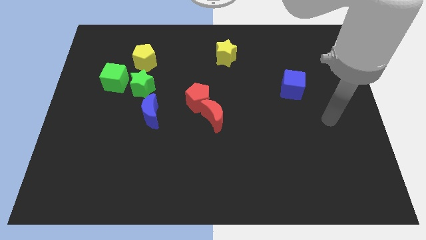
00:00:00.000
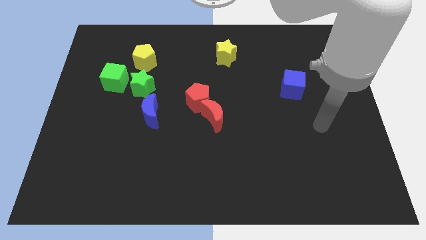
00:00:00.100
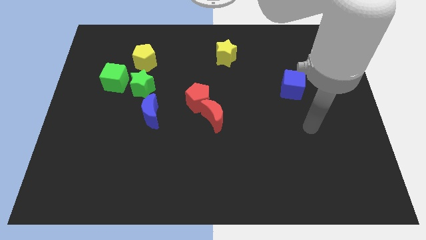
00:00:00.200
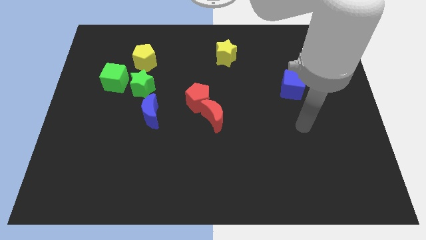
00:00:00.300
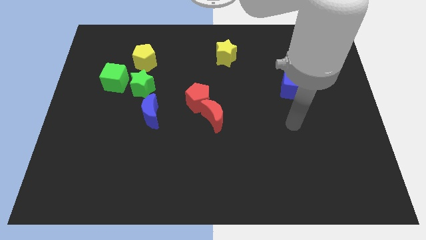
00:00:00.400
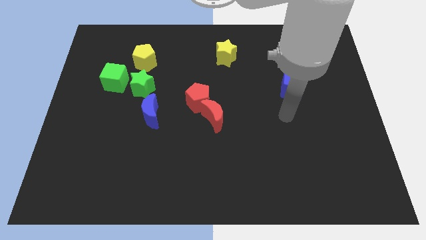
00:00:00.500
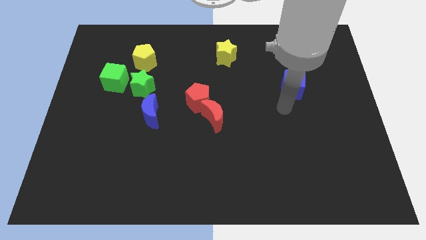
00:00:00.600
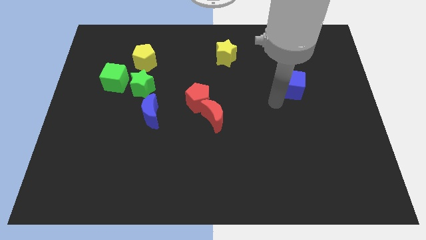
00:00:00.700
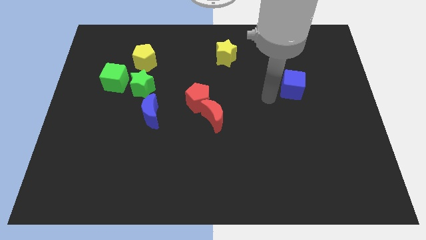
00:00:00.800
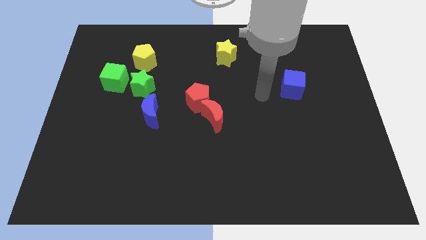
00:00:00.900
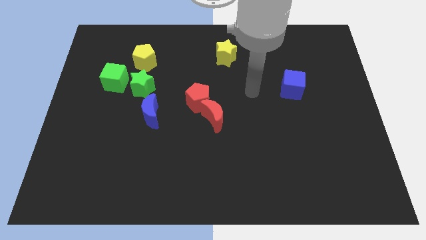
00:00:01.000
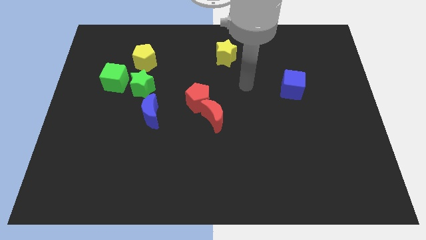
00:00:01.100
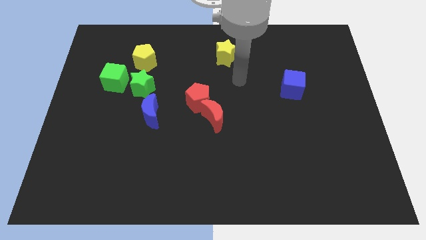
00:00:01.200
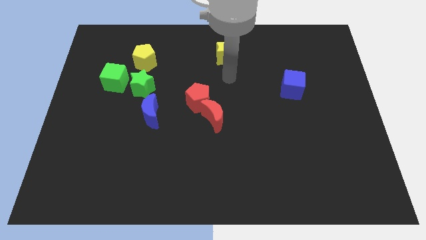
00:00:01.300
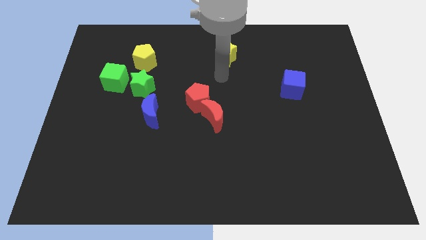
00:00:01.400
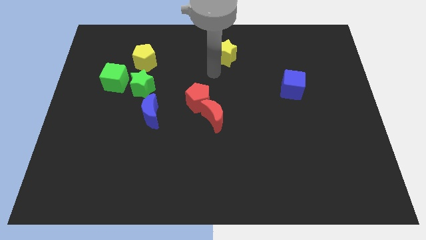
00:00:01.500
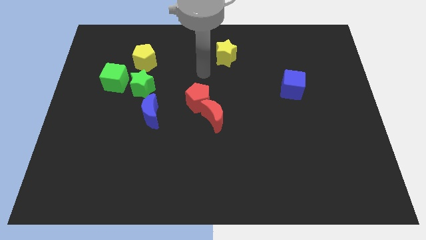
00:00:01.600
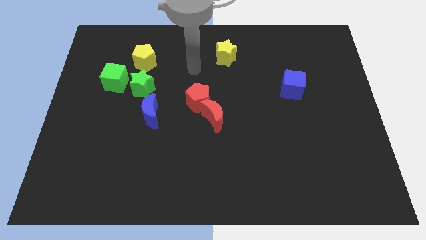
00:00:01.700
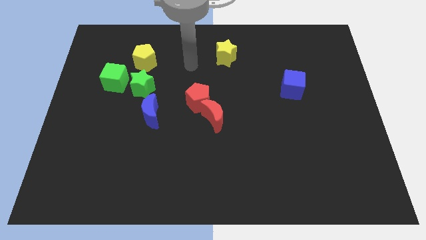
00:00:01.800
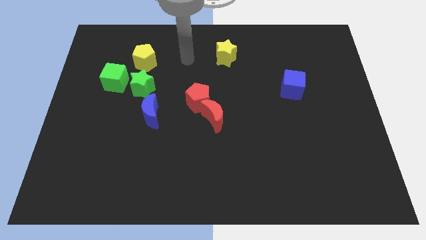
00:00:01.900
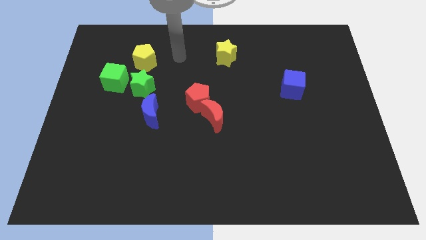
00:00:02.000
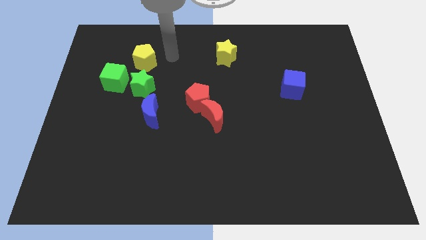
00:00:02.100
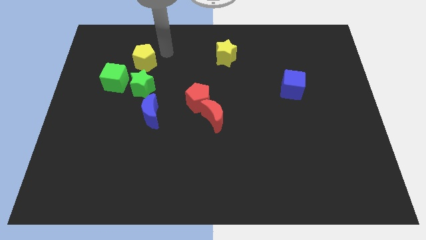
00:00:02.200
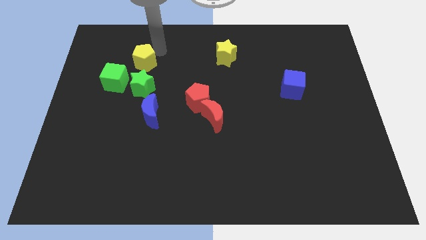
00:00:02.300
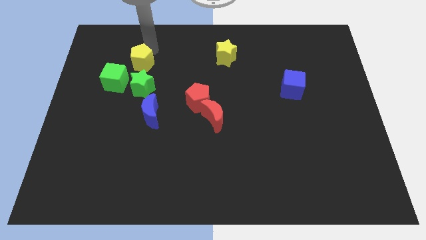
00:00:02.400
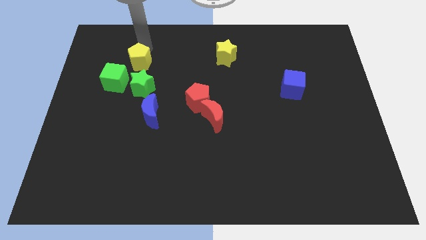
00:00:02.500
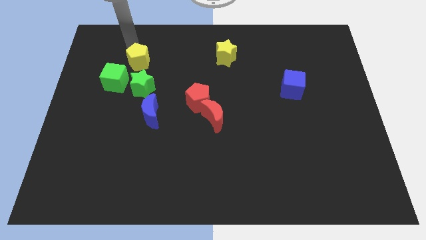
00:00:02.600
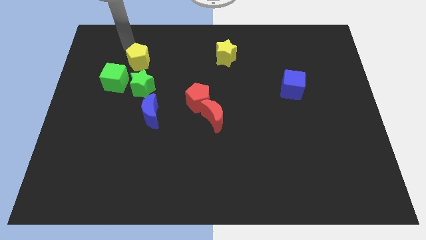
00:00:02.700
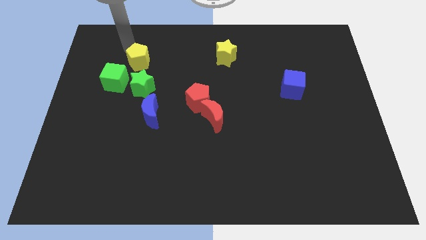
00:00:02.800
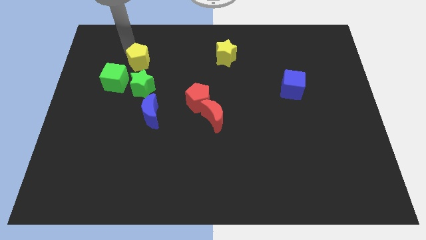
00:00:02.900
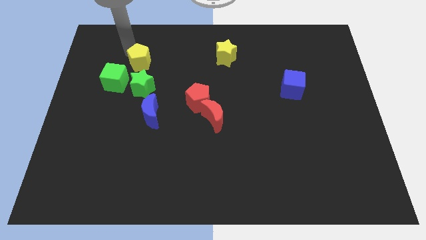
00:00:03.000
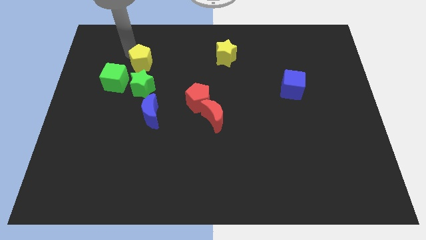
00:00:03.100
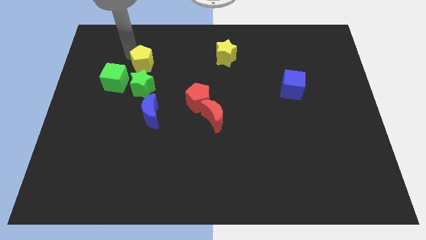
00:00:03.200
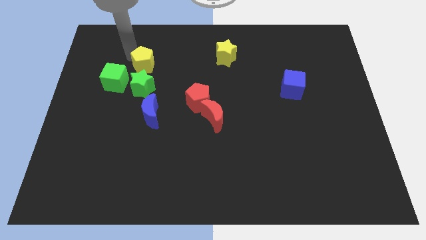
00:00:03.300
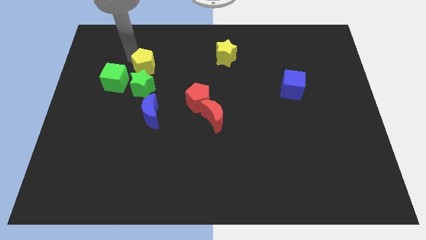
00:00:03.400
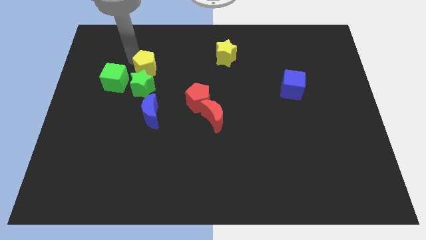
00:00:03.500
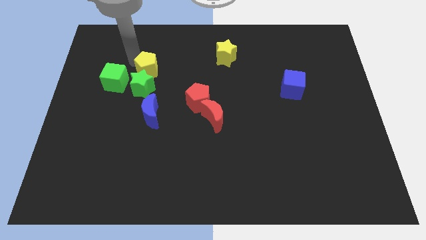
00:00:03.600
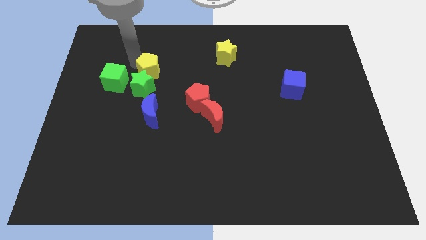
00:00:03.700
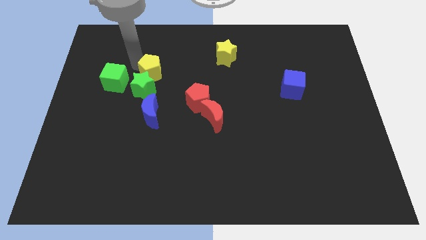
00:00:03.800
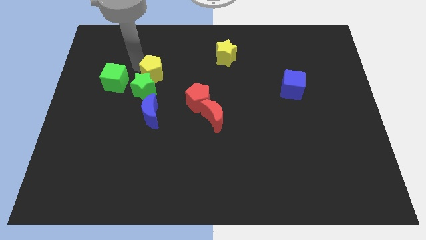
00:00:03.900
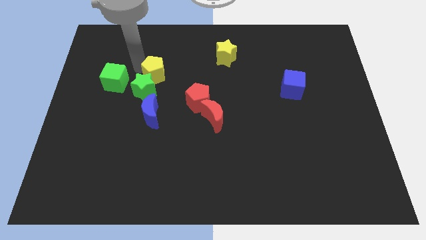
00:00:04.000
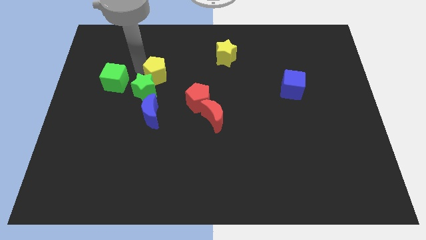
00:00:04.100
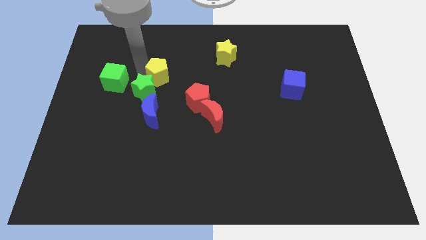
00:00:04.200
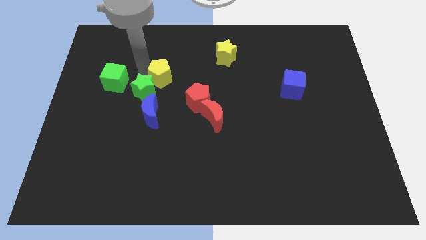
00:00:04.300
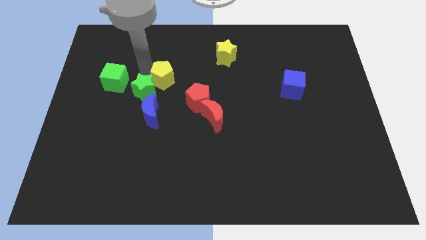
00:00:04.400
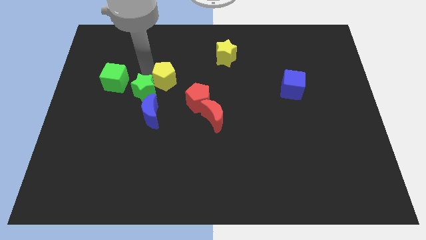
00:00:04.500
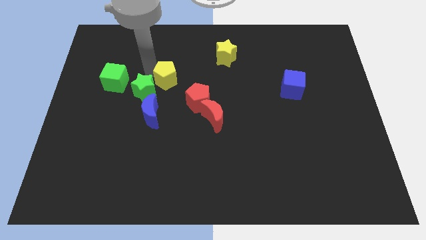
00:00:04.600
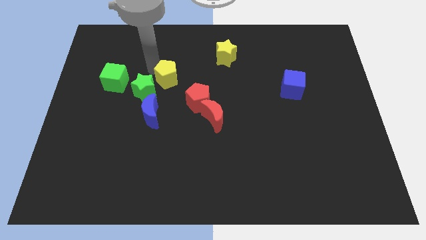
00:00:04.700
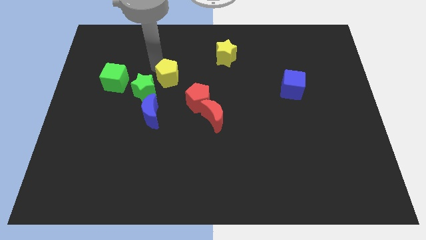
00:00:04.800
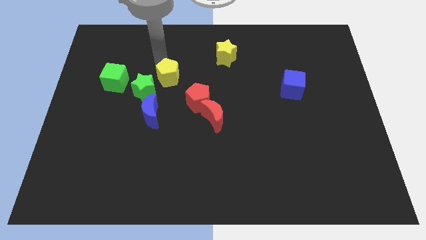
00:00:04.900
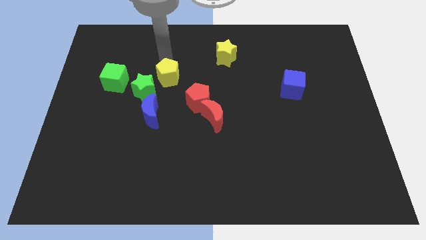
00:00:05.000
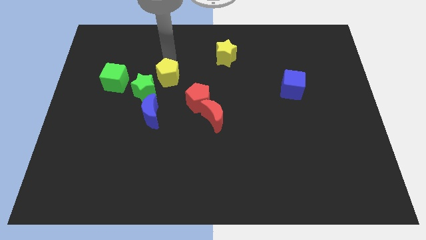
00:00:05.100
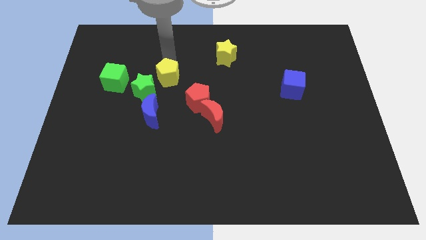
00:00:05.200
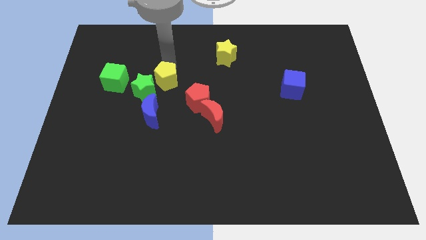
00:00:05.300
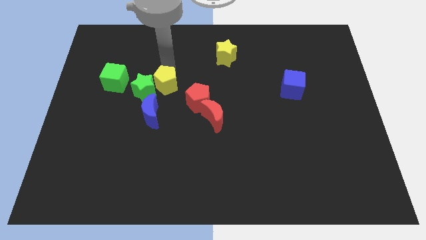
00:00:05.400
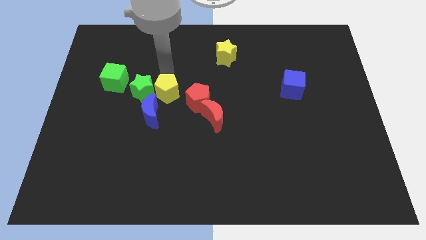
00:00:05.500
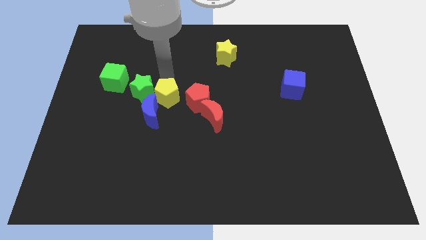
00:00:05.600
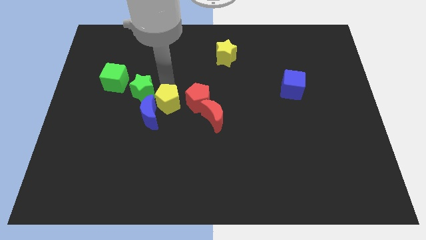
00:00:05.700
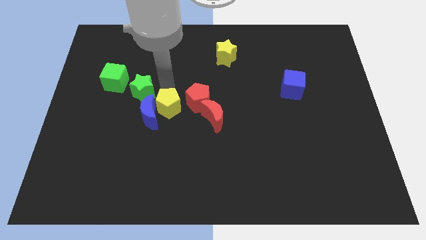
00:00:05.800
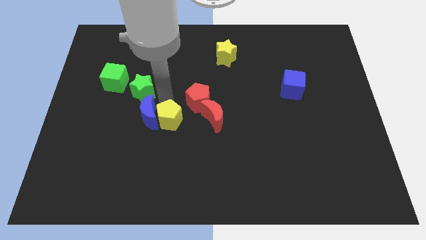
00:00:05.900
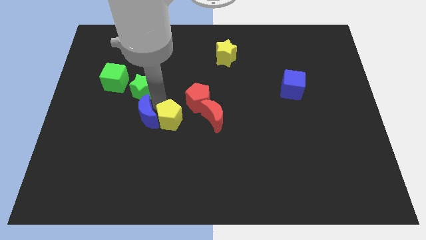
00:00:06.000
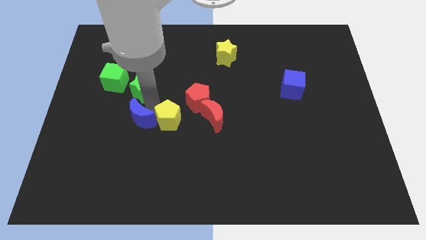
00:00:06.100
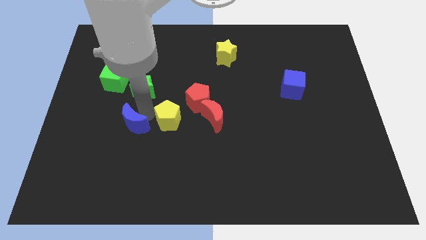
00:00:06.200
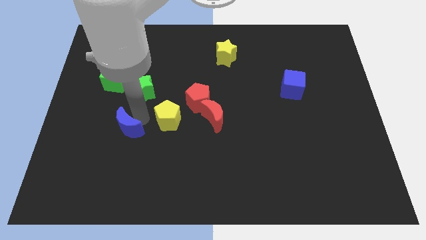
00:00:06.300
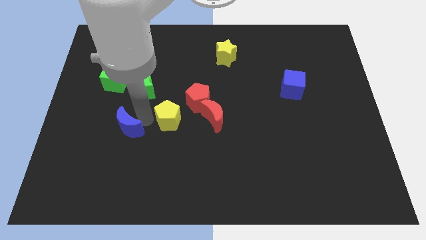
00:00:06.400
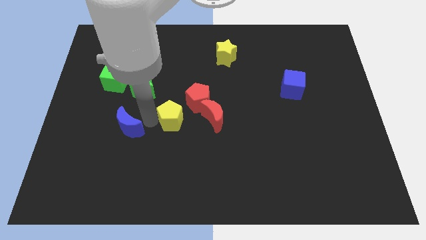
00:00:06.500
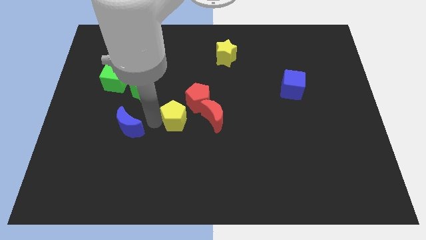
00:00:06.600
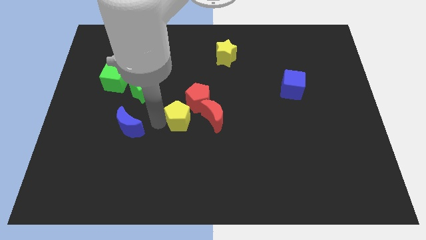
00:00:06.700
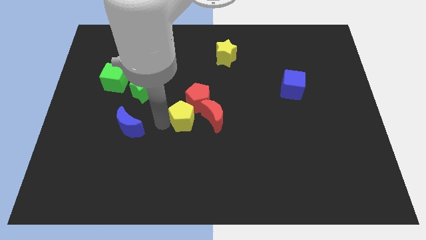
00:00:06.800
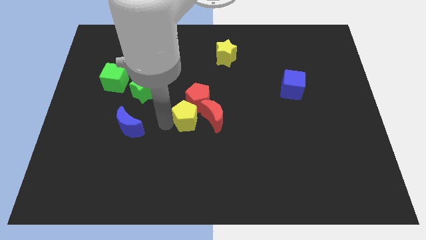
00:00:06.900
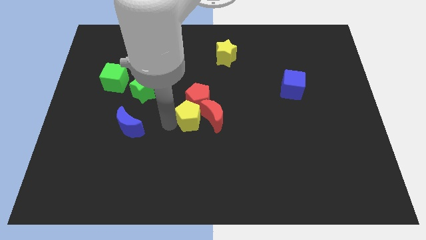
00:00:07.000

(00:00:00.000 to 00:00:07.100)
slide the yellow pentagon to the red moon

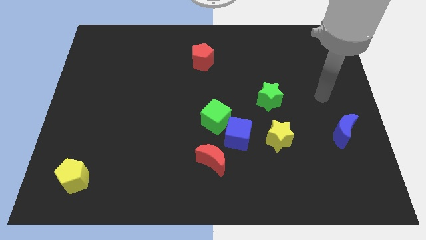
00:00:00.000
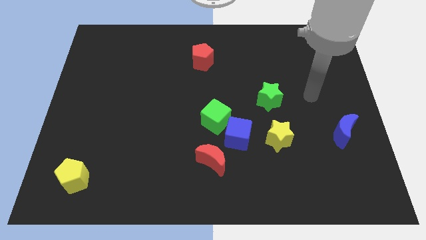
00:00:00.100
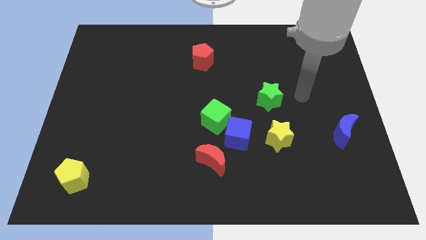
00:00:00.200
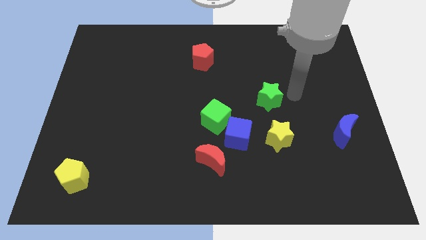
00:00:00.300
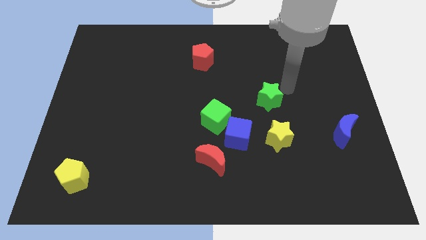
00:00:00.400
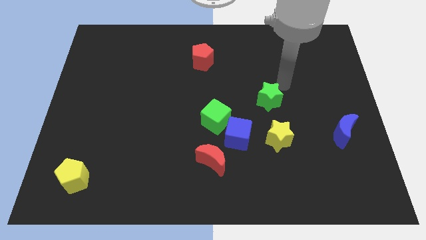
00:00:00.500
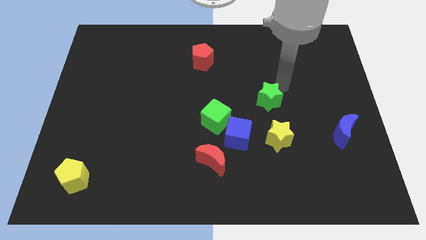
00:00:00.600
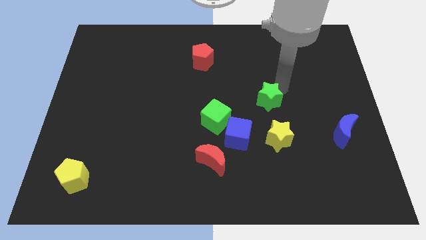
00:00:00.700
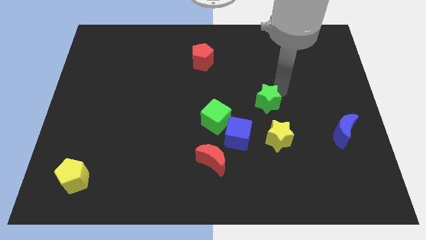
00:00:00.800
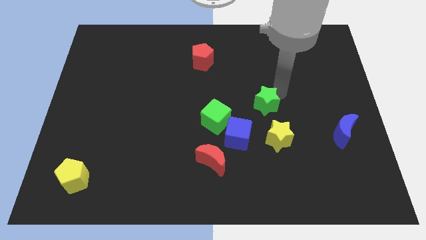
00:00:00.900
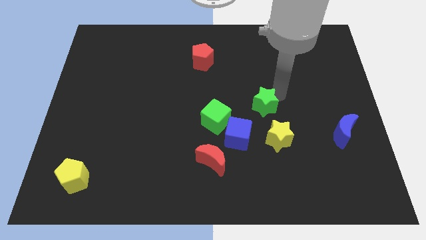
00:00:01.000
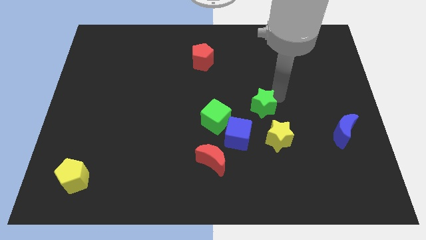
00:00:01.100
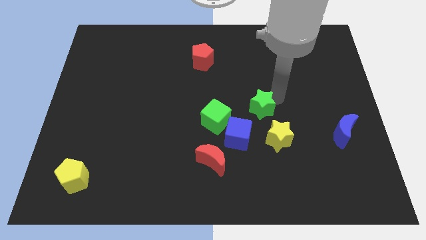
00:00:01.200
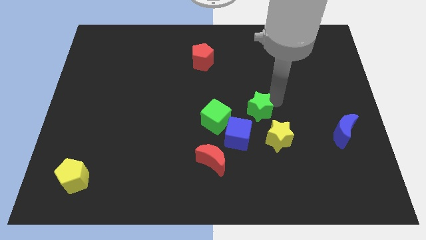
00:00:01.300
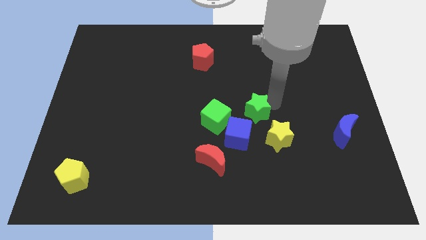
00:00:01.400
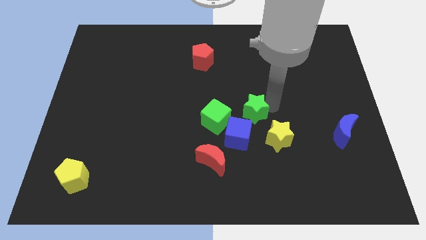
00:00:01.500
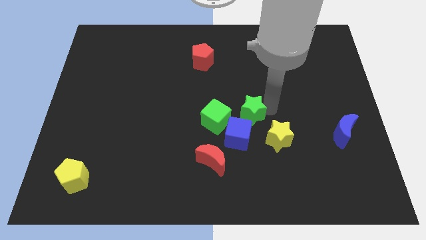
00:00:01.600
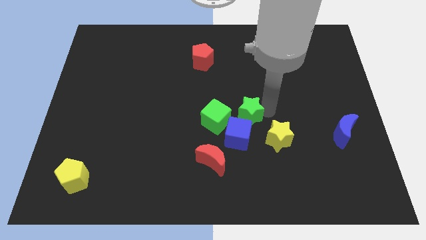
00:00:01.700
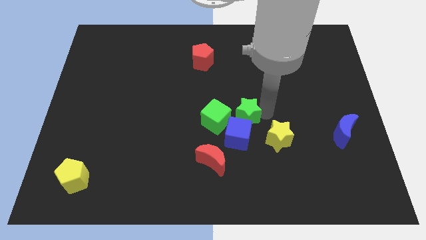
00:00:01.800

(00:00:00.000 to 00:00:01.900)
slide the green star towards the blue cube
